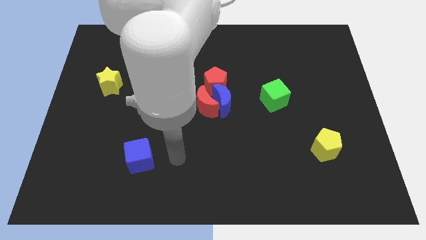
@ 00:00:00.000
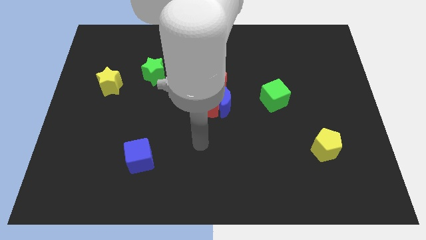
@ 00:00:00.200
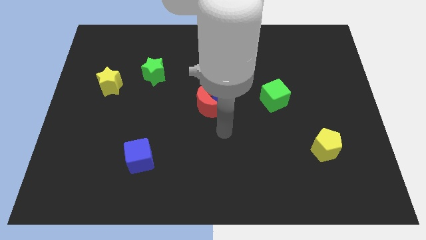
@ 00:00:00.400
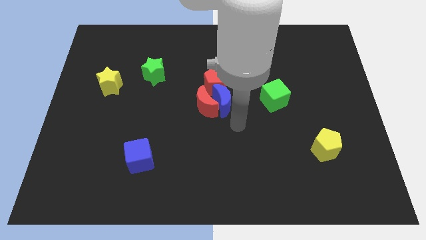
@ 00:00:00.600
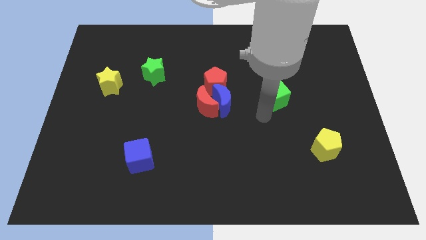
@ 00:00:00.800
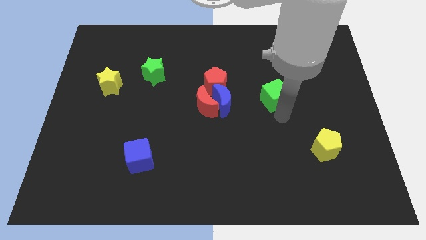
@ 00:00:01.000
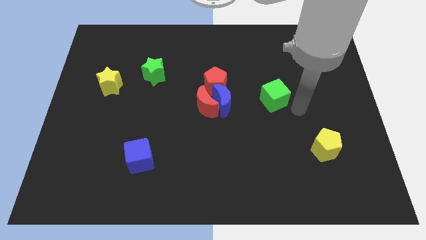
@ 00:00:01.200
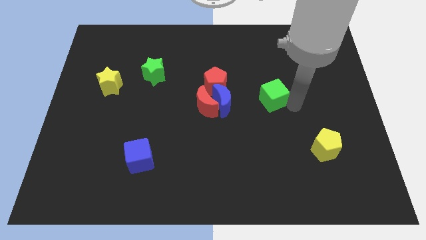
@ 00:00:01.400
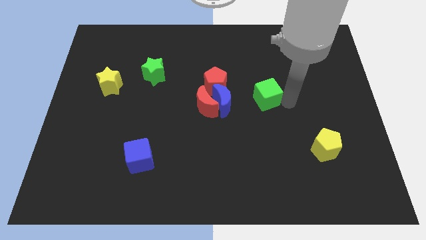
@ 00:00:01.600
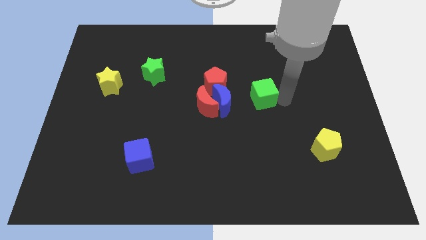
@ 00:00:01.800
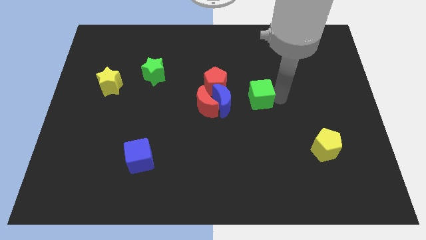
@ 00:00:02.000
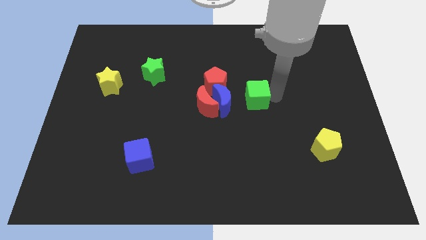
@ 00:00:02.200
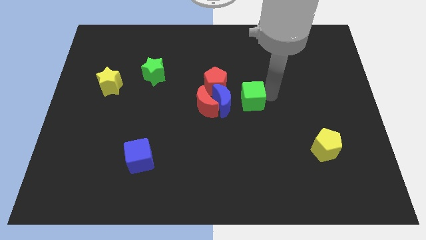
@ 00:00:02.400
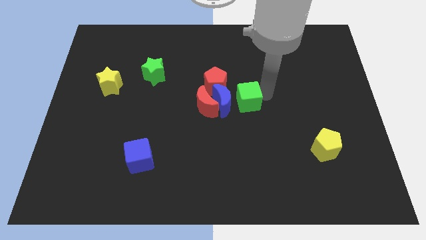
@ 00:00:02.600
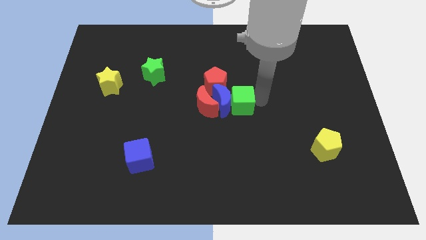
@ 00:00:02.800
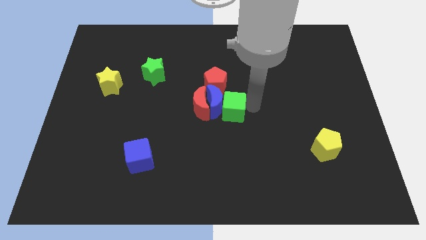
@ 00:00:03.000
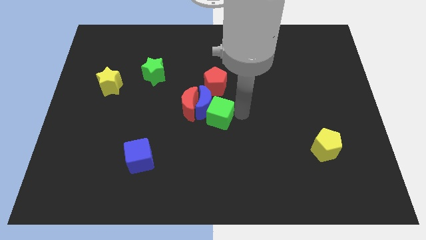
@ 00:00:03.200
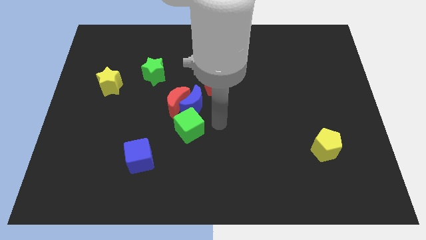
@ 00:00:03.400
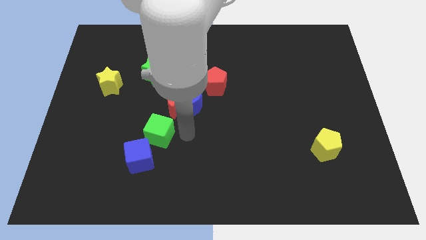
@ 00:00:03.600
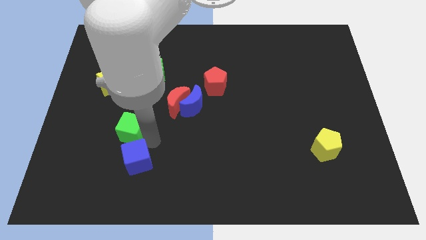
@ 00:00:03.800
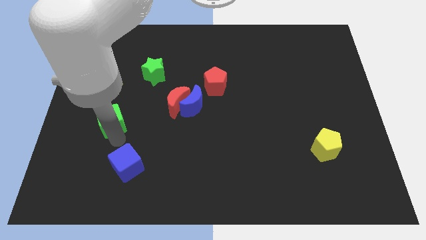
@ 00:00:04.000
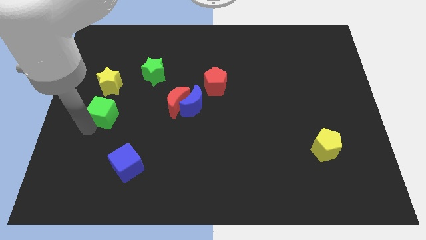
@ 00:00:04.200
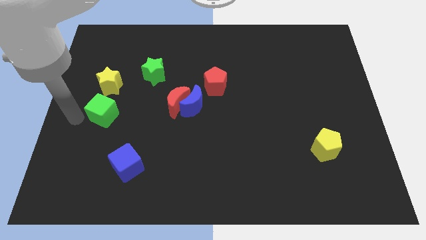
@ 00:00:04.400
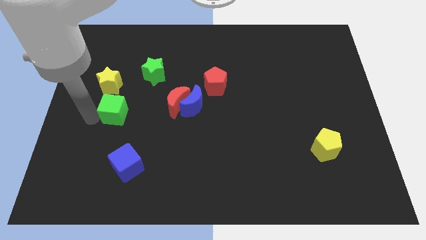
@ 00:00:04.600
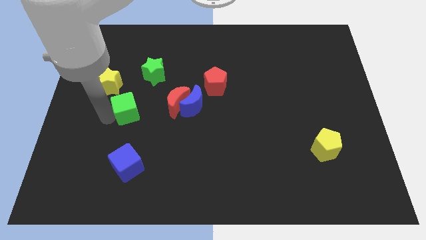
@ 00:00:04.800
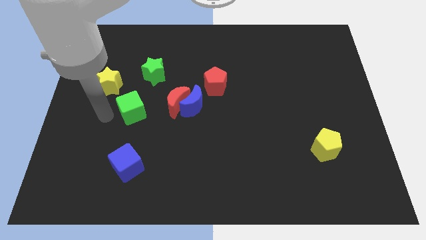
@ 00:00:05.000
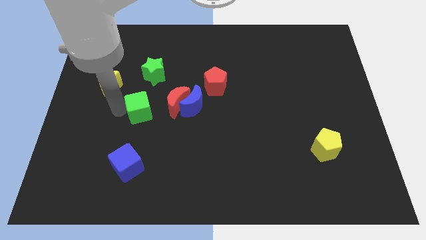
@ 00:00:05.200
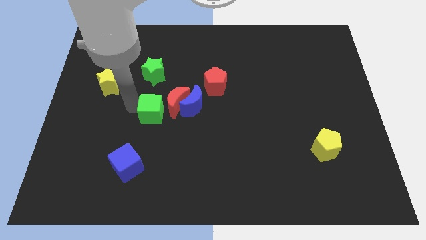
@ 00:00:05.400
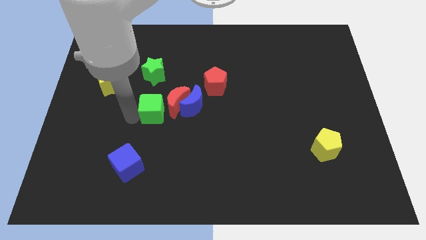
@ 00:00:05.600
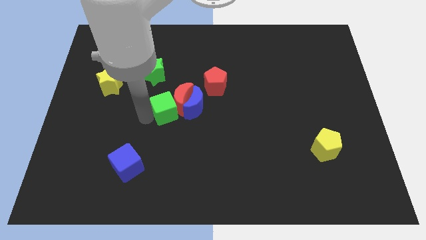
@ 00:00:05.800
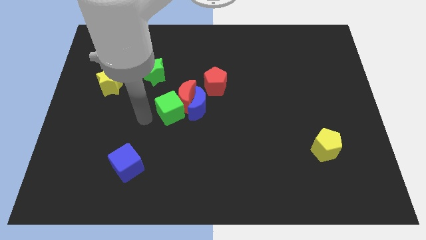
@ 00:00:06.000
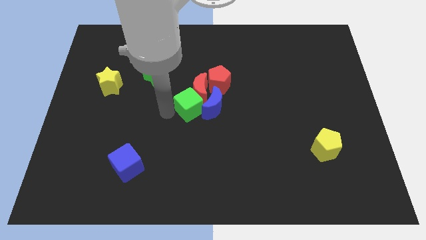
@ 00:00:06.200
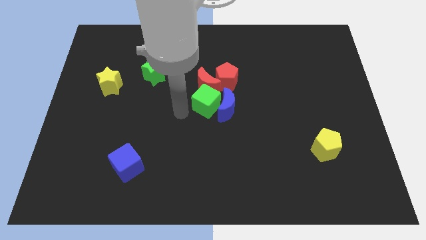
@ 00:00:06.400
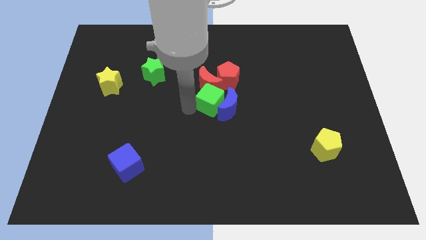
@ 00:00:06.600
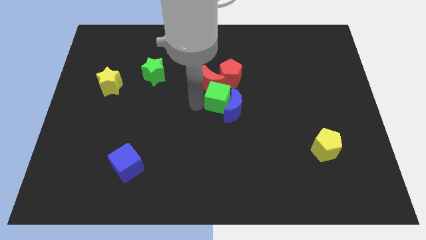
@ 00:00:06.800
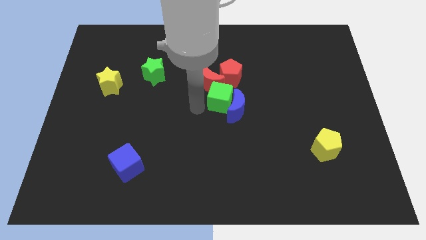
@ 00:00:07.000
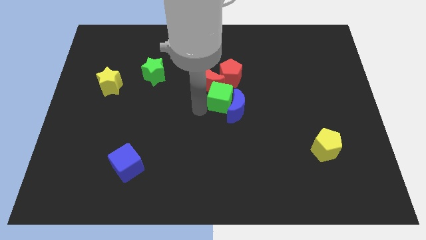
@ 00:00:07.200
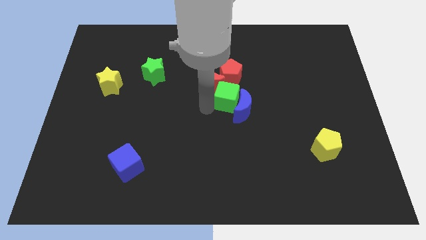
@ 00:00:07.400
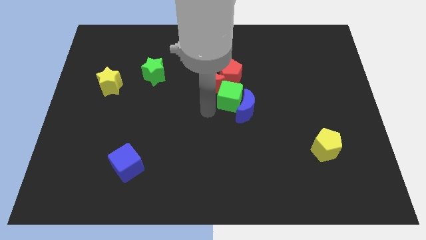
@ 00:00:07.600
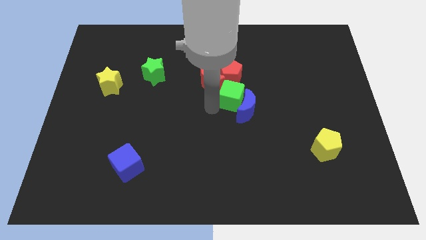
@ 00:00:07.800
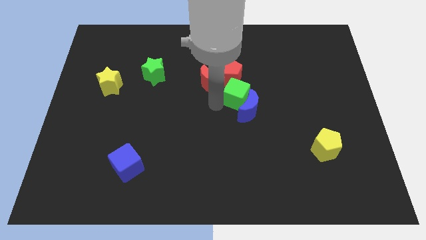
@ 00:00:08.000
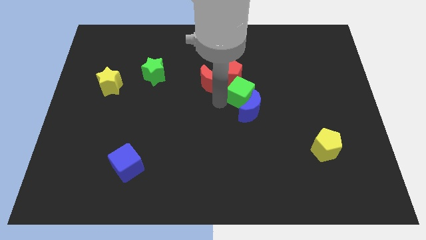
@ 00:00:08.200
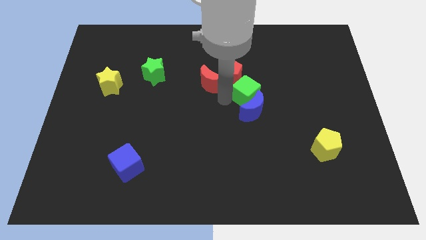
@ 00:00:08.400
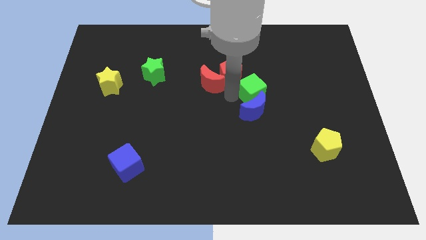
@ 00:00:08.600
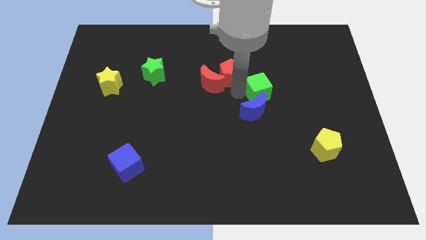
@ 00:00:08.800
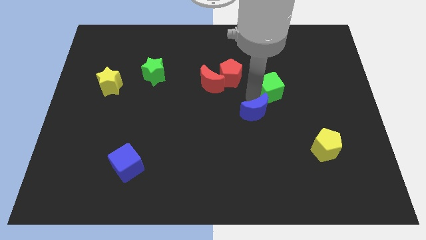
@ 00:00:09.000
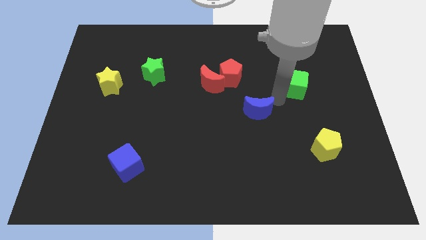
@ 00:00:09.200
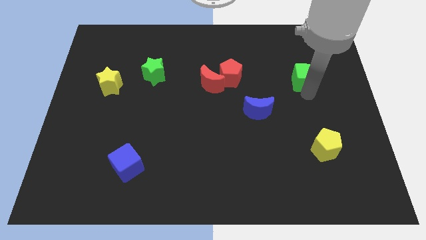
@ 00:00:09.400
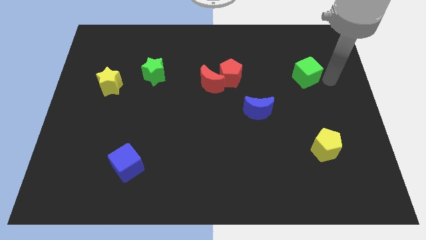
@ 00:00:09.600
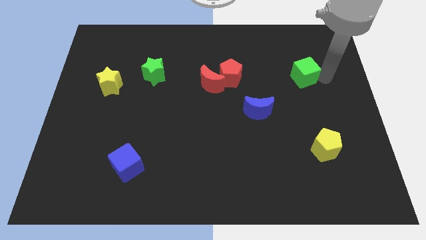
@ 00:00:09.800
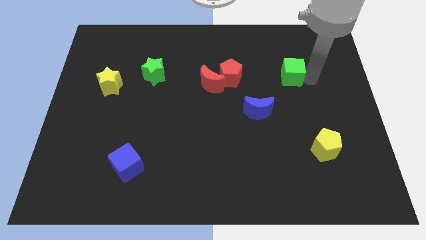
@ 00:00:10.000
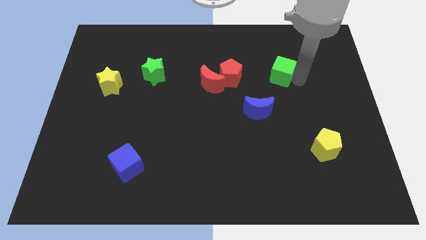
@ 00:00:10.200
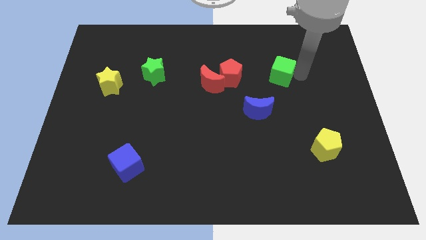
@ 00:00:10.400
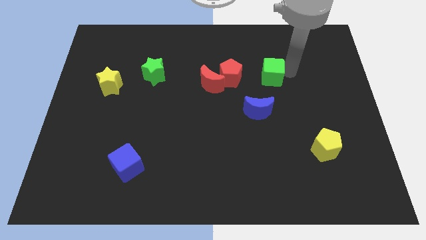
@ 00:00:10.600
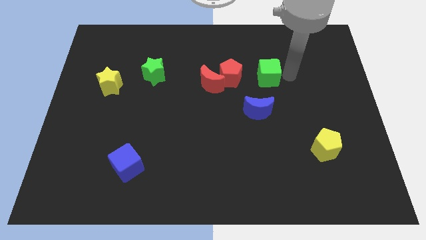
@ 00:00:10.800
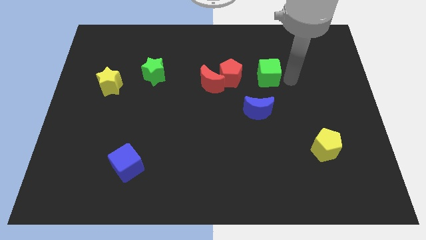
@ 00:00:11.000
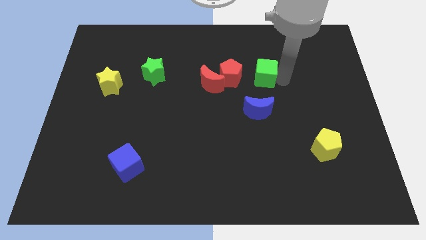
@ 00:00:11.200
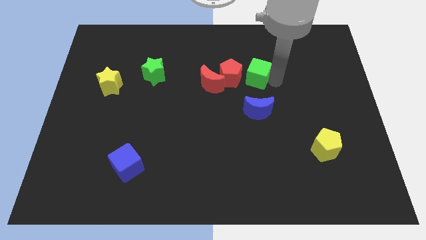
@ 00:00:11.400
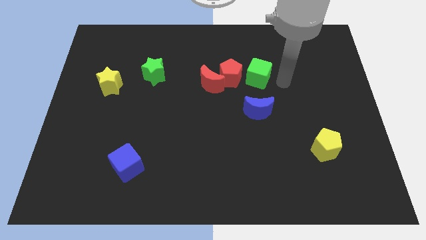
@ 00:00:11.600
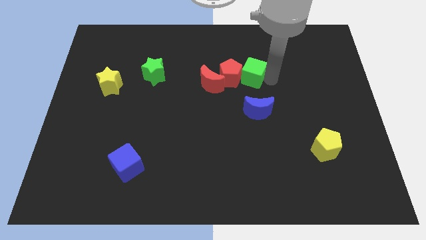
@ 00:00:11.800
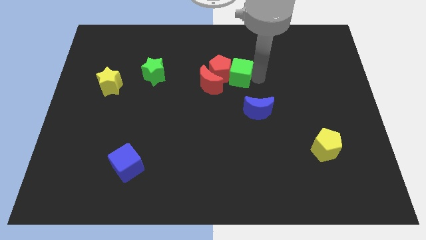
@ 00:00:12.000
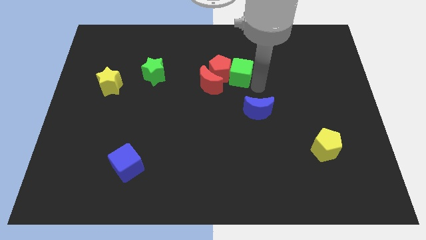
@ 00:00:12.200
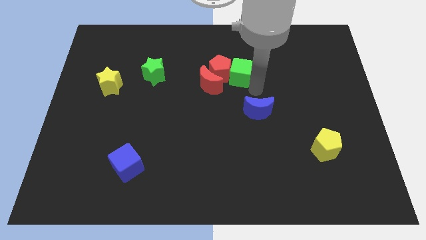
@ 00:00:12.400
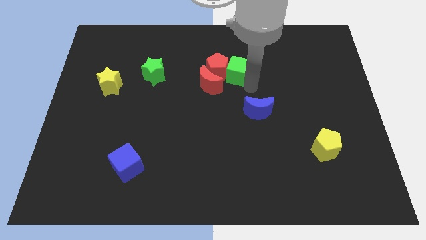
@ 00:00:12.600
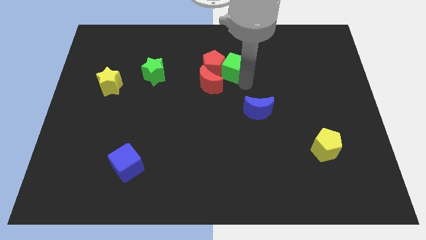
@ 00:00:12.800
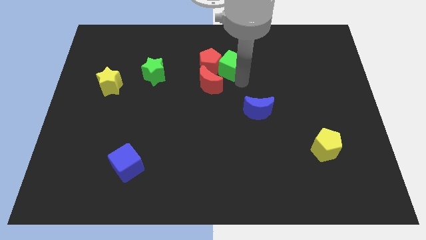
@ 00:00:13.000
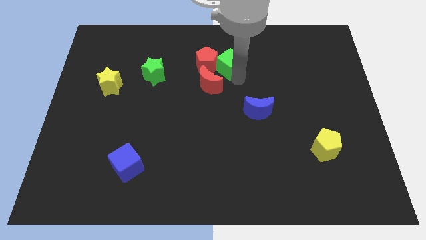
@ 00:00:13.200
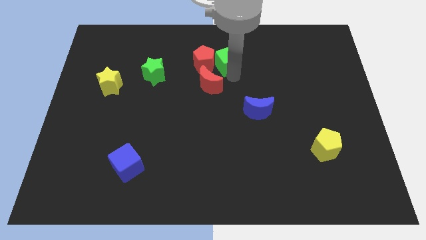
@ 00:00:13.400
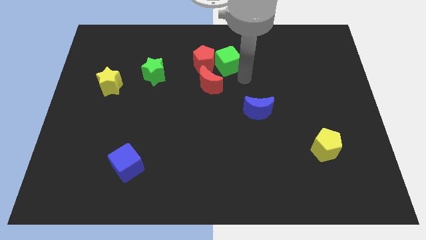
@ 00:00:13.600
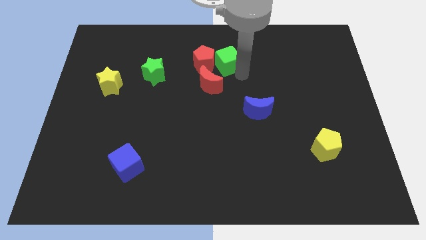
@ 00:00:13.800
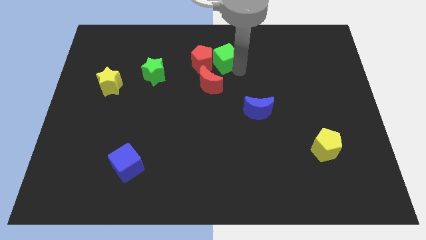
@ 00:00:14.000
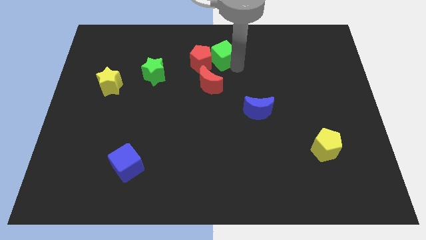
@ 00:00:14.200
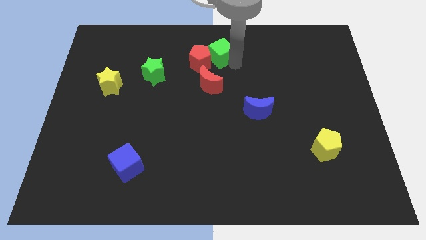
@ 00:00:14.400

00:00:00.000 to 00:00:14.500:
put the green cube to the top side
